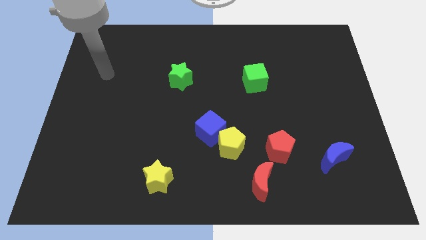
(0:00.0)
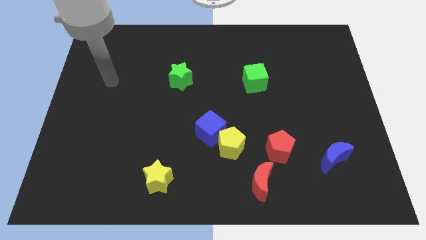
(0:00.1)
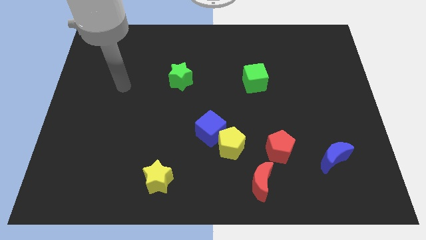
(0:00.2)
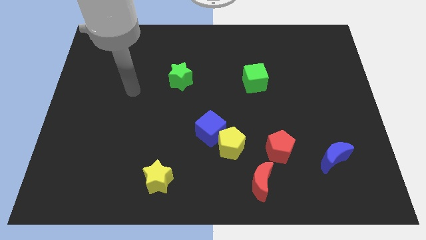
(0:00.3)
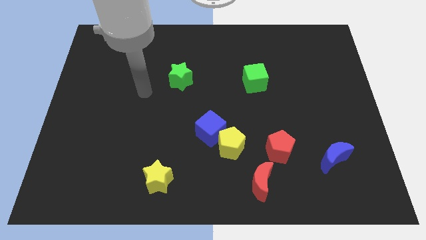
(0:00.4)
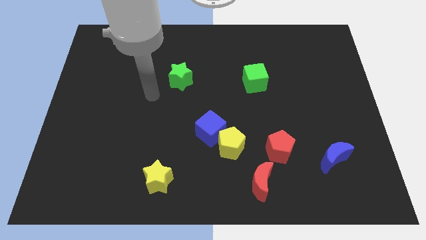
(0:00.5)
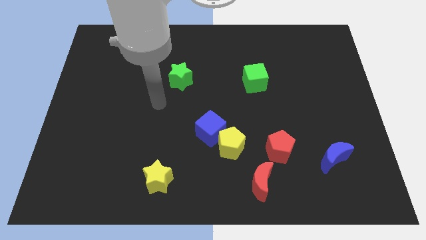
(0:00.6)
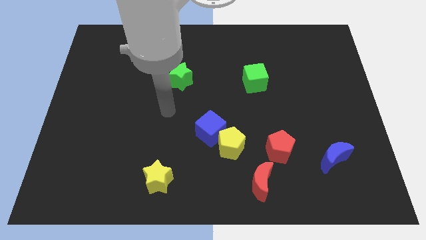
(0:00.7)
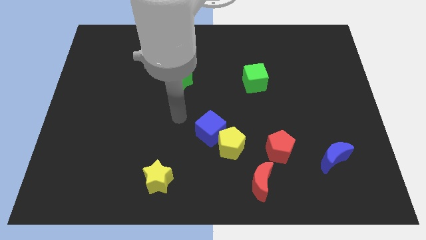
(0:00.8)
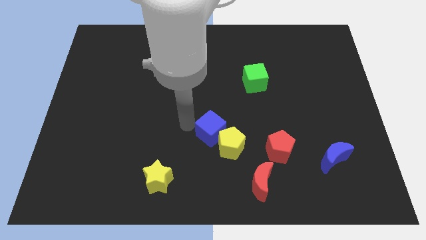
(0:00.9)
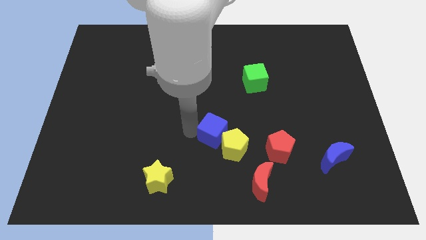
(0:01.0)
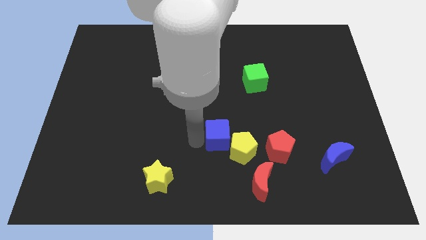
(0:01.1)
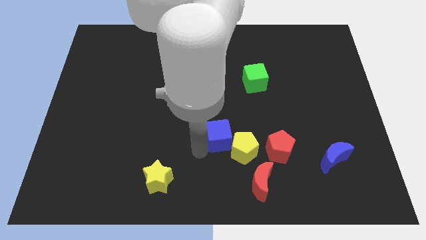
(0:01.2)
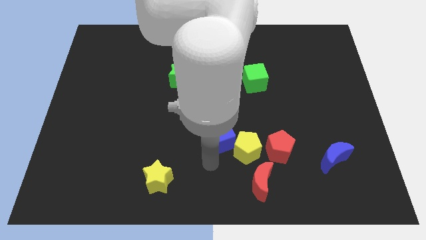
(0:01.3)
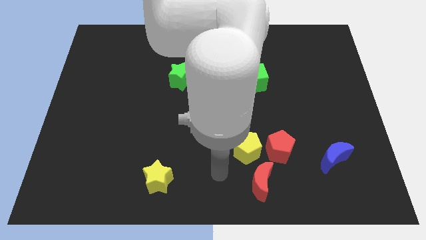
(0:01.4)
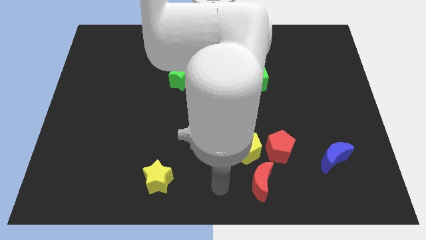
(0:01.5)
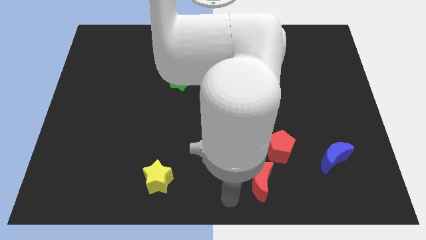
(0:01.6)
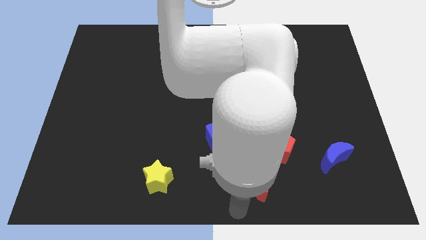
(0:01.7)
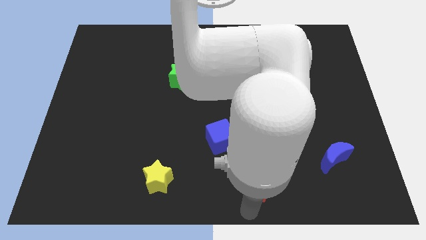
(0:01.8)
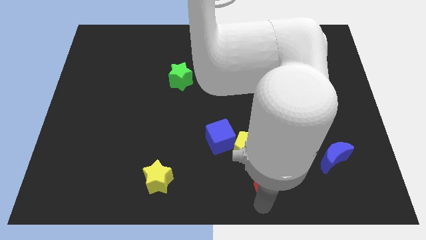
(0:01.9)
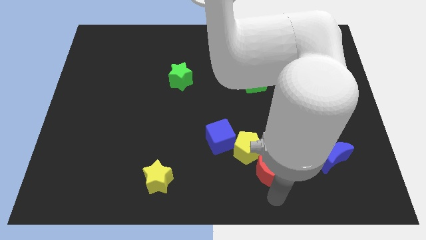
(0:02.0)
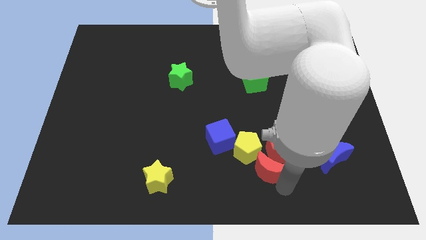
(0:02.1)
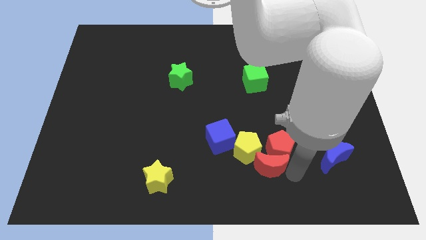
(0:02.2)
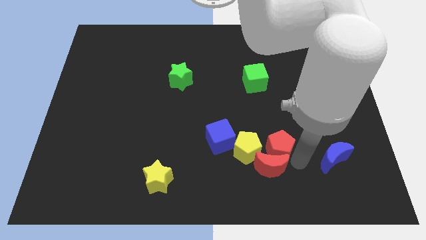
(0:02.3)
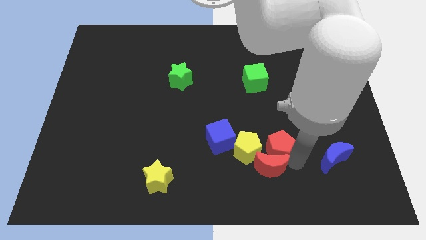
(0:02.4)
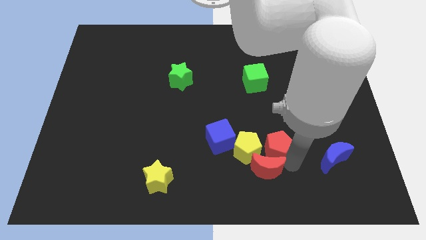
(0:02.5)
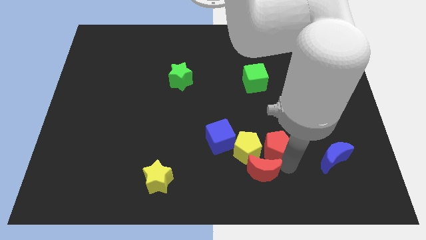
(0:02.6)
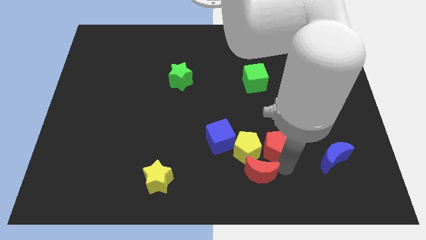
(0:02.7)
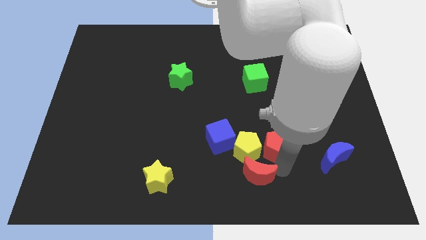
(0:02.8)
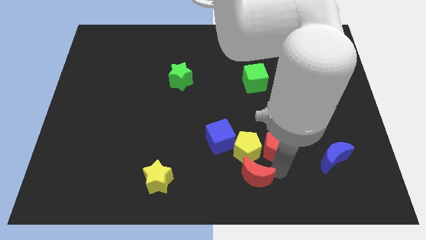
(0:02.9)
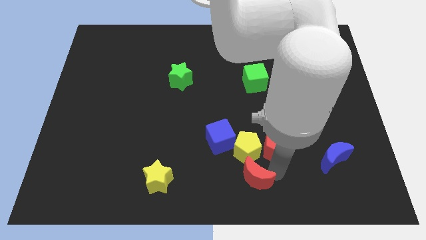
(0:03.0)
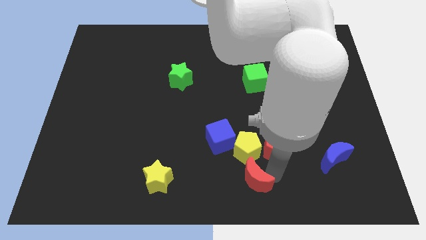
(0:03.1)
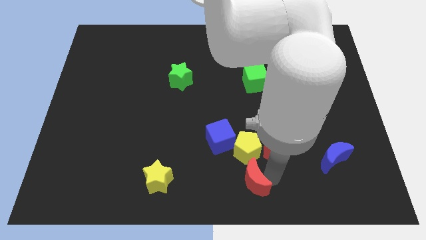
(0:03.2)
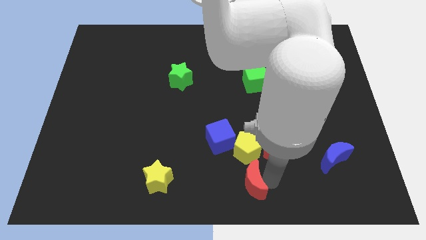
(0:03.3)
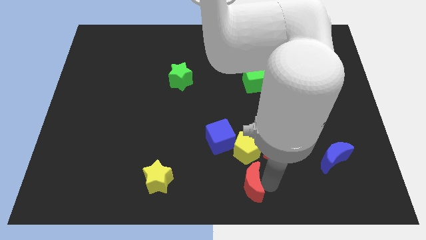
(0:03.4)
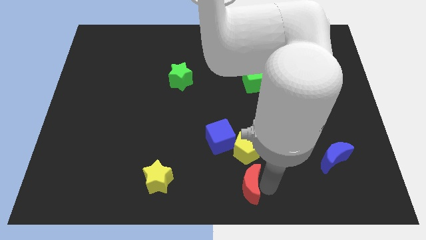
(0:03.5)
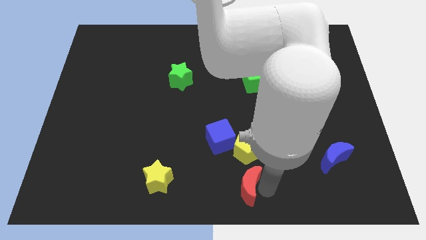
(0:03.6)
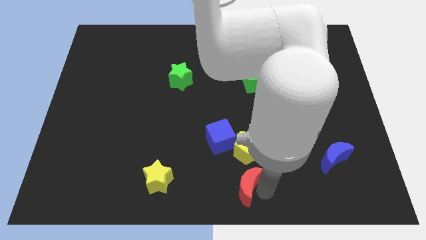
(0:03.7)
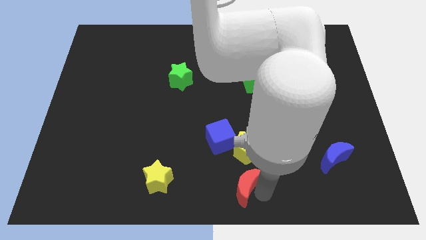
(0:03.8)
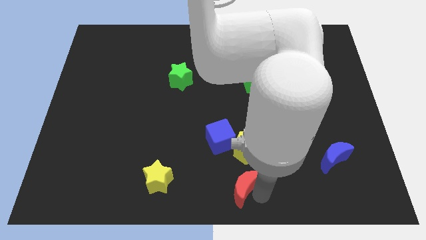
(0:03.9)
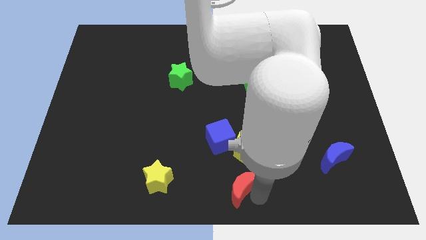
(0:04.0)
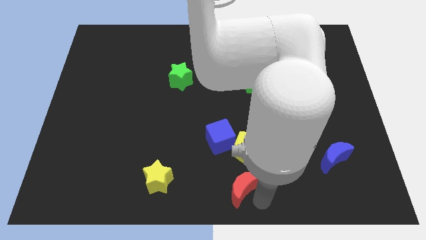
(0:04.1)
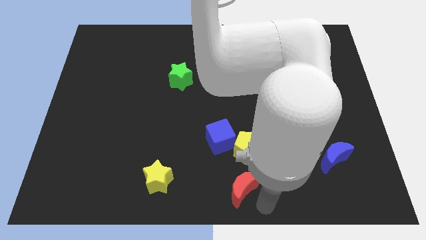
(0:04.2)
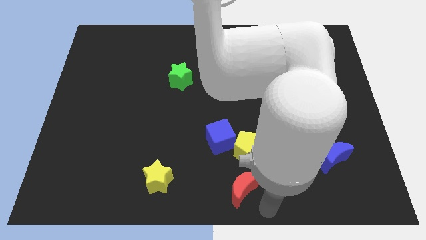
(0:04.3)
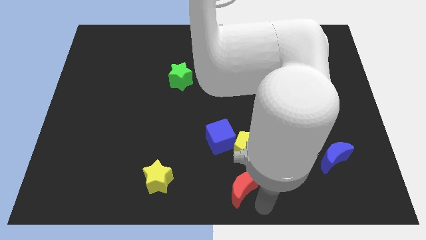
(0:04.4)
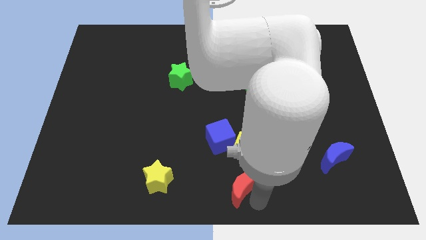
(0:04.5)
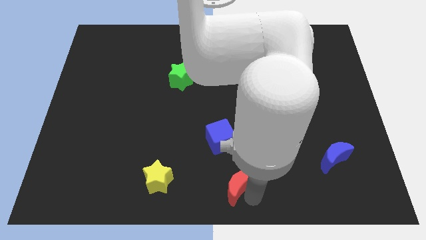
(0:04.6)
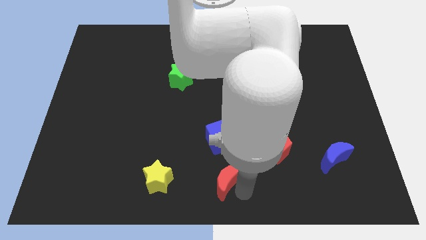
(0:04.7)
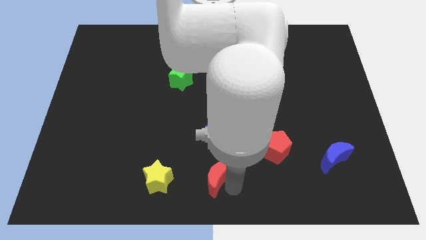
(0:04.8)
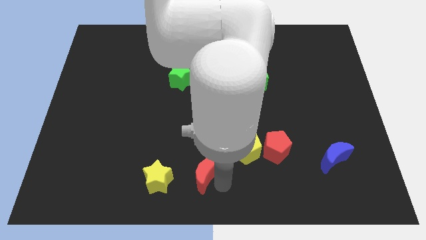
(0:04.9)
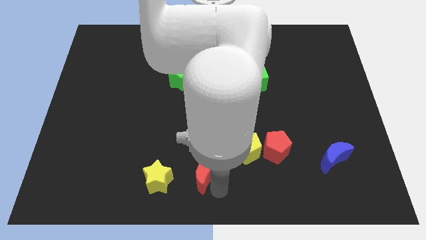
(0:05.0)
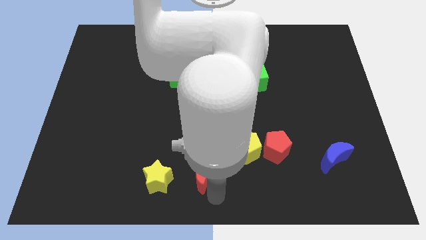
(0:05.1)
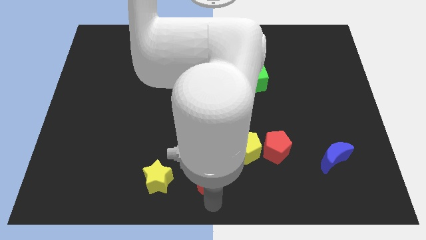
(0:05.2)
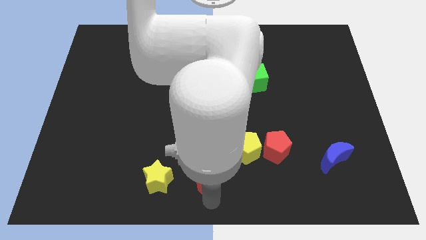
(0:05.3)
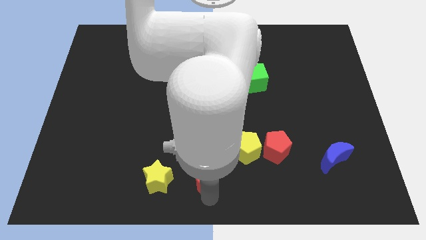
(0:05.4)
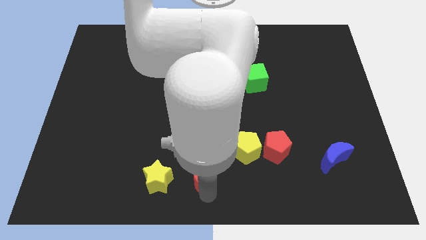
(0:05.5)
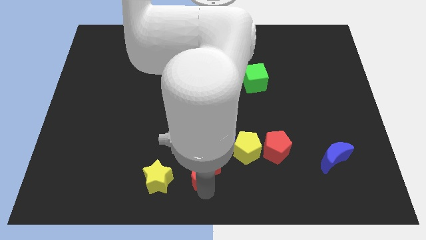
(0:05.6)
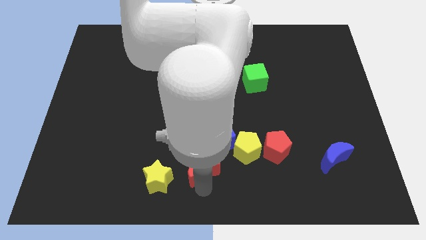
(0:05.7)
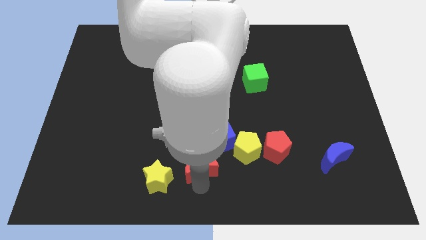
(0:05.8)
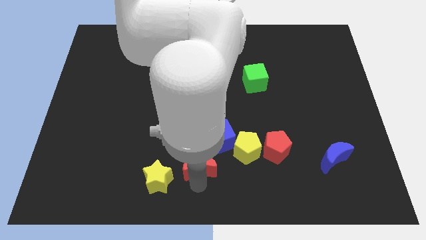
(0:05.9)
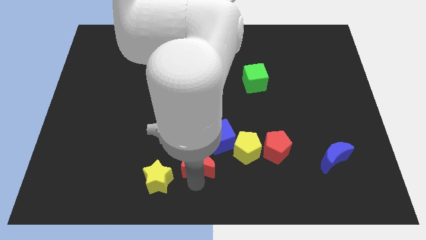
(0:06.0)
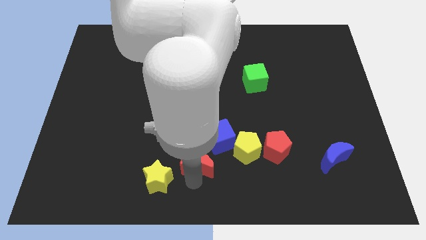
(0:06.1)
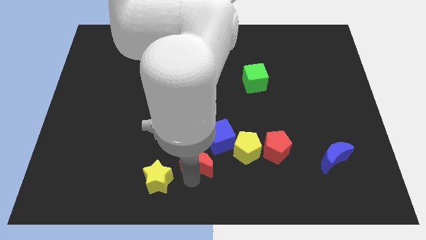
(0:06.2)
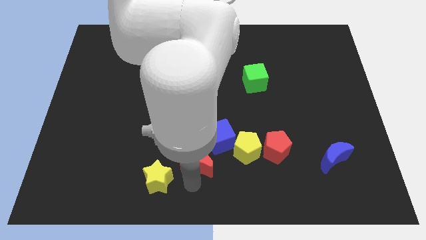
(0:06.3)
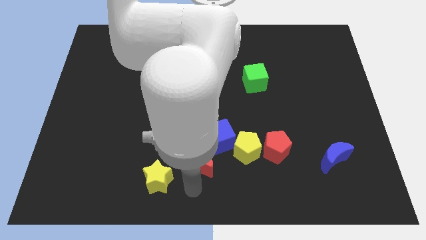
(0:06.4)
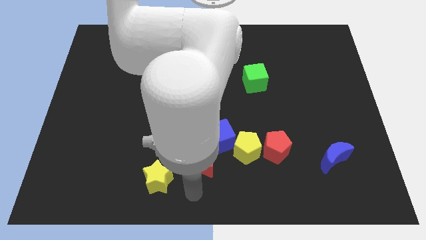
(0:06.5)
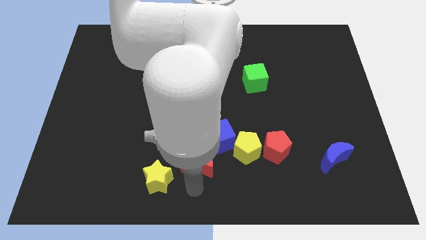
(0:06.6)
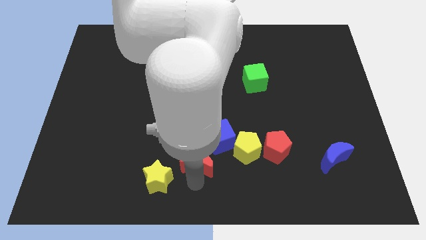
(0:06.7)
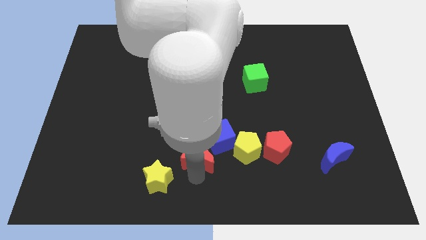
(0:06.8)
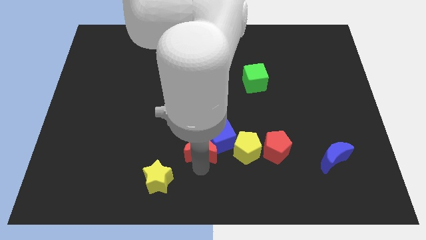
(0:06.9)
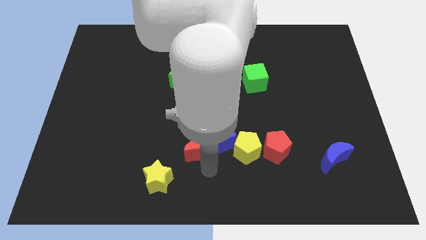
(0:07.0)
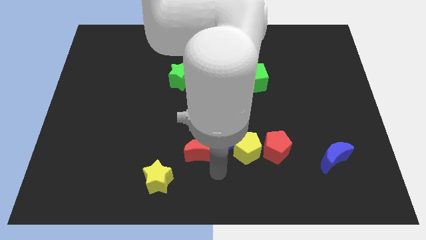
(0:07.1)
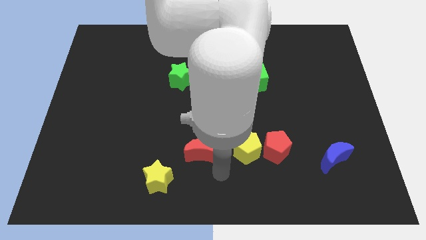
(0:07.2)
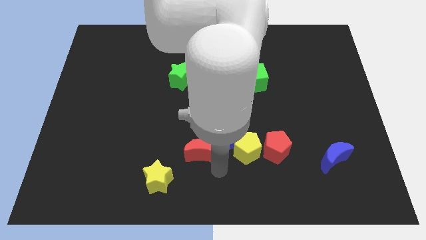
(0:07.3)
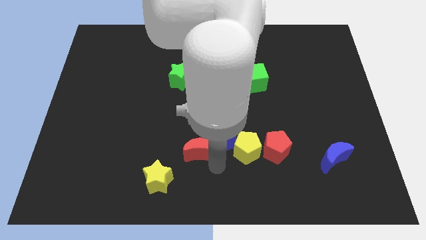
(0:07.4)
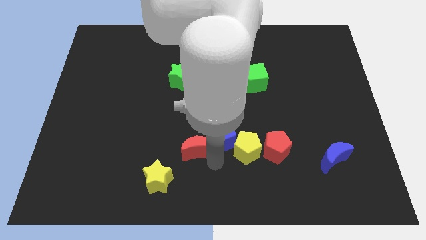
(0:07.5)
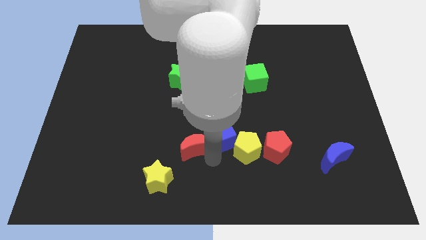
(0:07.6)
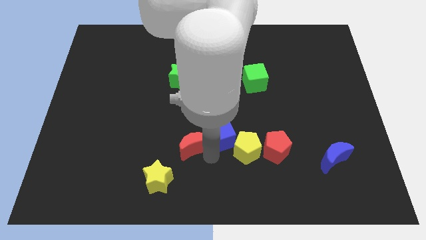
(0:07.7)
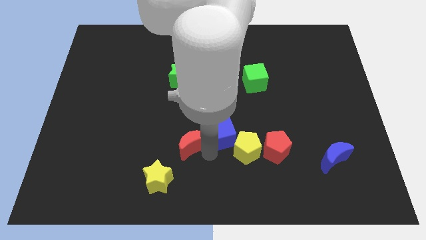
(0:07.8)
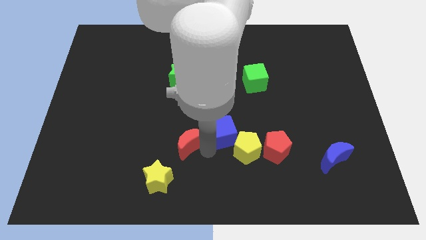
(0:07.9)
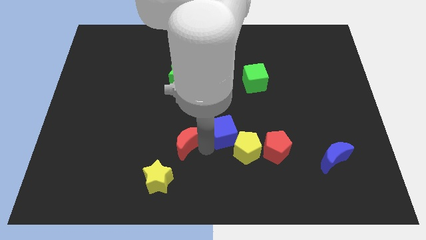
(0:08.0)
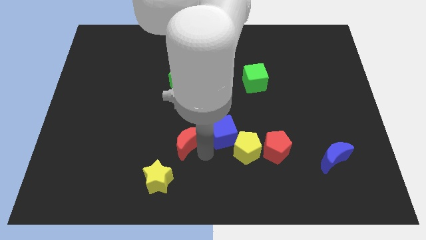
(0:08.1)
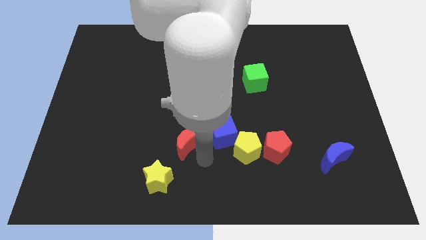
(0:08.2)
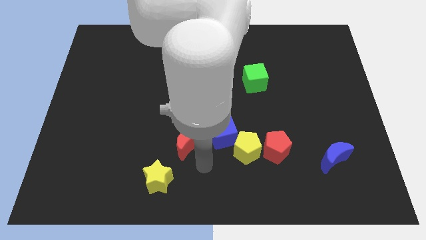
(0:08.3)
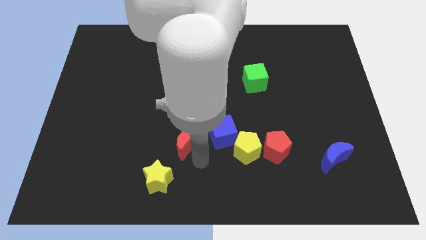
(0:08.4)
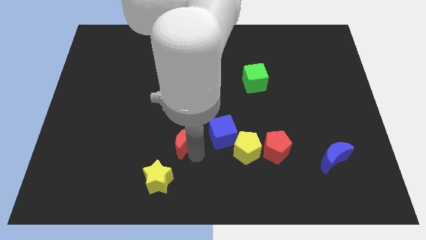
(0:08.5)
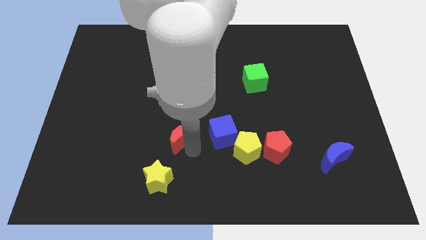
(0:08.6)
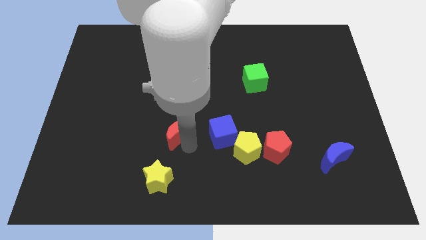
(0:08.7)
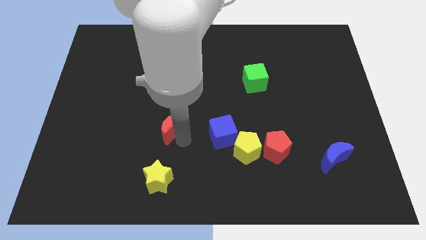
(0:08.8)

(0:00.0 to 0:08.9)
slide the red moon diagonally up and left
